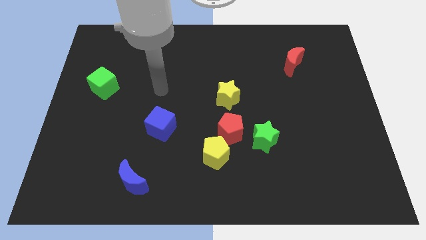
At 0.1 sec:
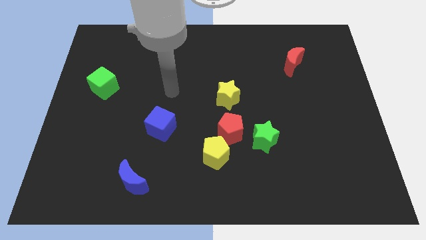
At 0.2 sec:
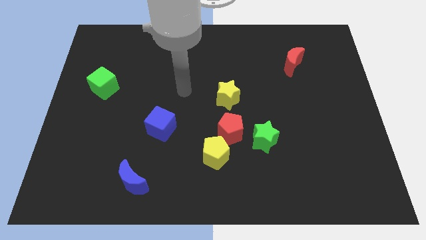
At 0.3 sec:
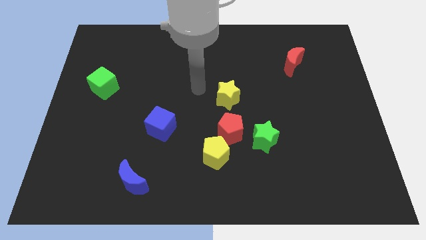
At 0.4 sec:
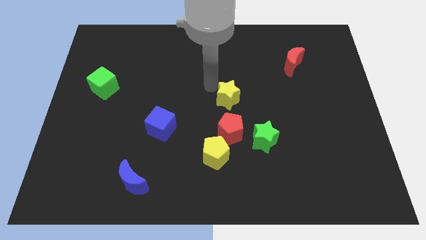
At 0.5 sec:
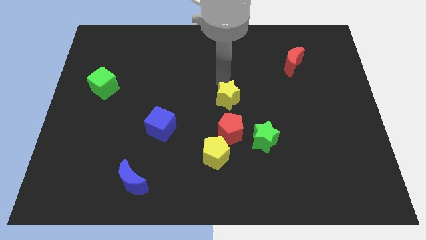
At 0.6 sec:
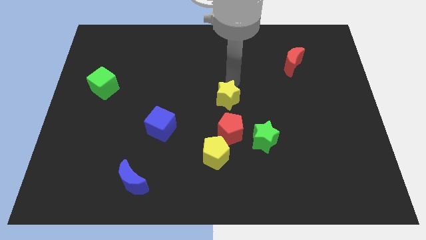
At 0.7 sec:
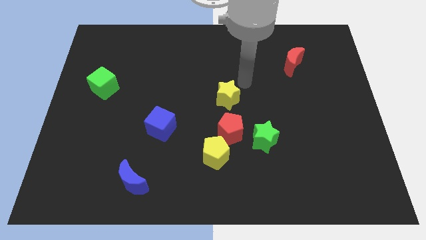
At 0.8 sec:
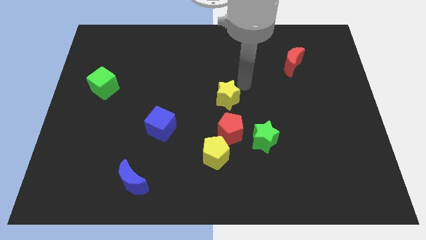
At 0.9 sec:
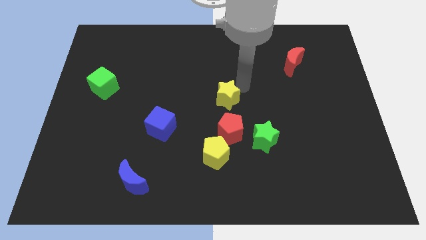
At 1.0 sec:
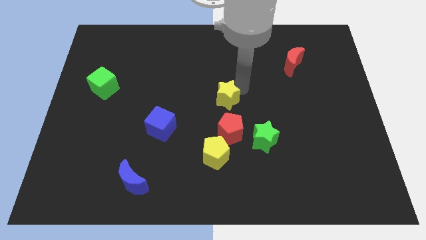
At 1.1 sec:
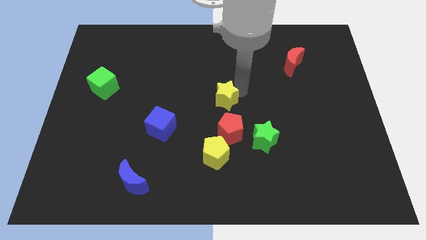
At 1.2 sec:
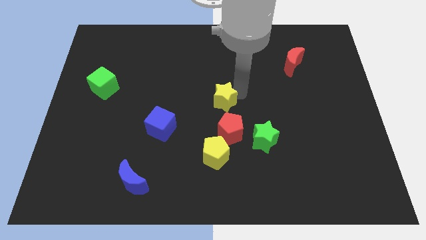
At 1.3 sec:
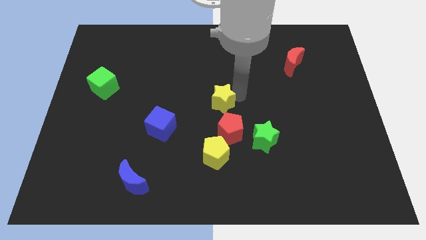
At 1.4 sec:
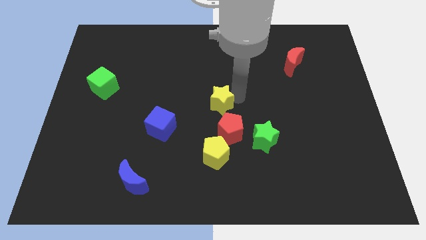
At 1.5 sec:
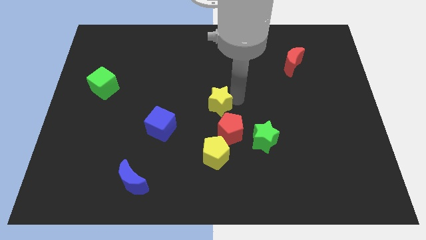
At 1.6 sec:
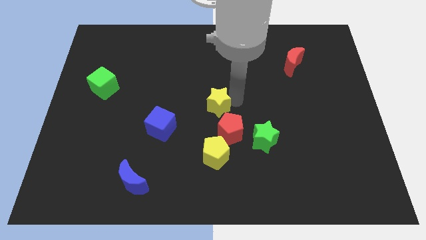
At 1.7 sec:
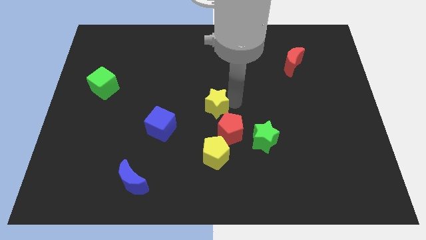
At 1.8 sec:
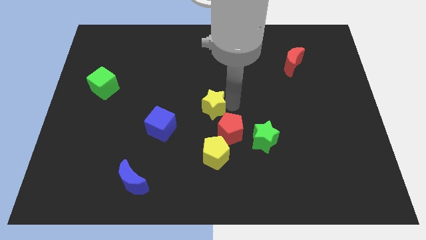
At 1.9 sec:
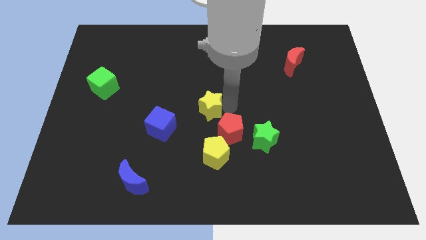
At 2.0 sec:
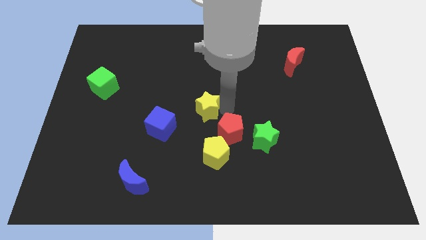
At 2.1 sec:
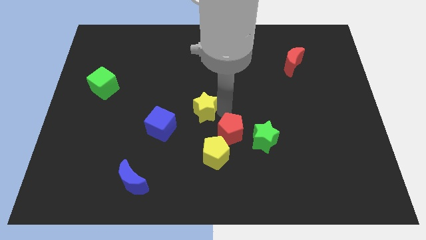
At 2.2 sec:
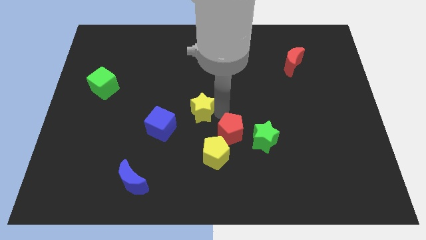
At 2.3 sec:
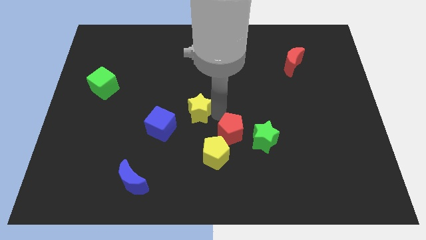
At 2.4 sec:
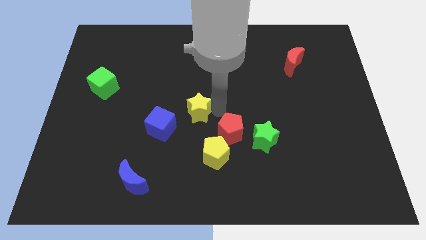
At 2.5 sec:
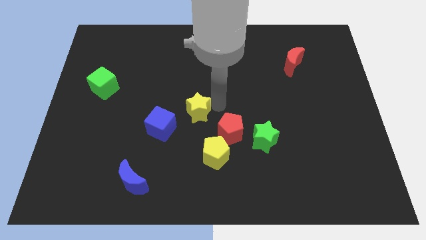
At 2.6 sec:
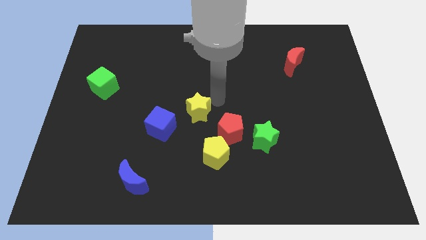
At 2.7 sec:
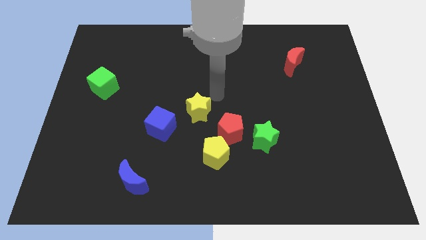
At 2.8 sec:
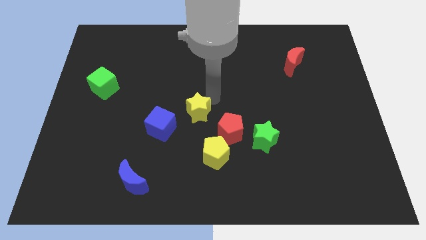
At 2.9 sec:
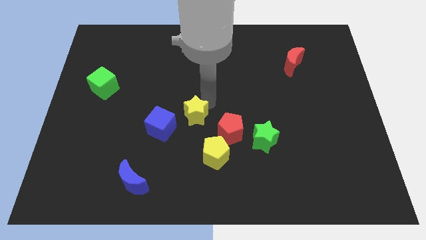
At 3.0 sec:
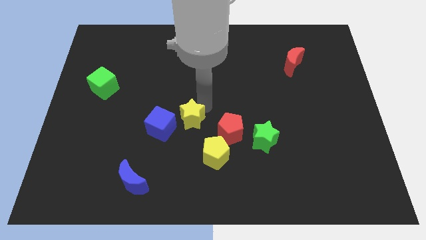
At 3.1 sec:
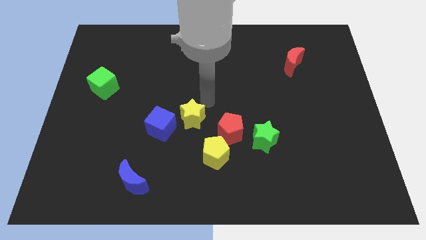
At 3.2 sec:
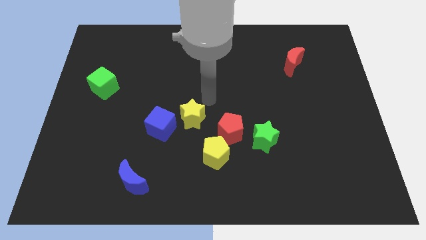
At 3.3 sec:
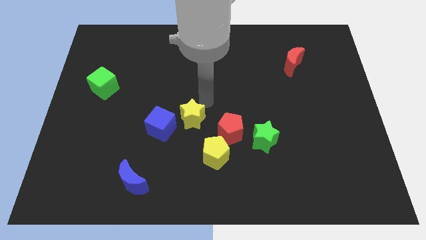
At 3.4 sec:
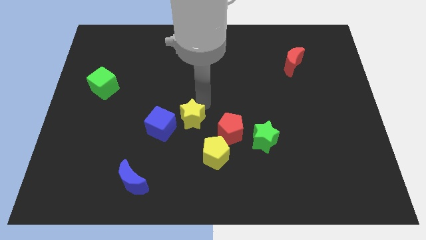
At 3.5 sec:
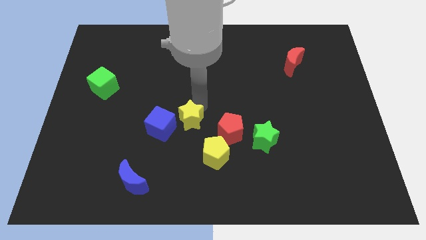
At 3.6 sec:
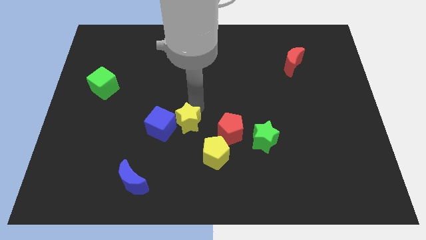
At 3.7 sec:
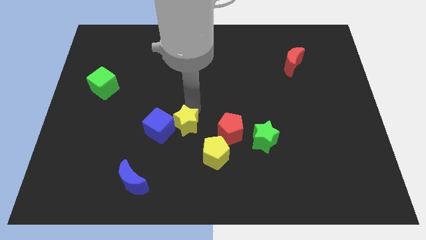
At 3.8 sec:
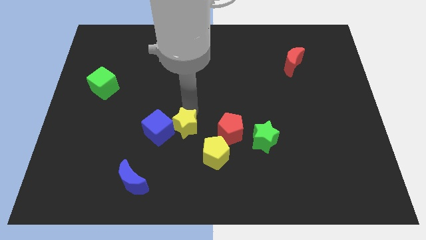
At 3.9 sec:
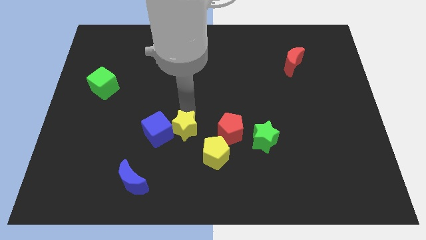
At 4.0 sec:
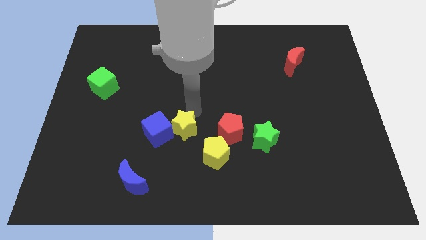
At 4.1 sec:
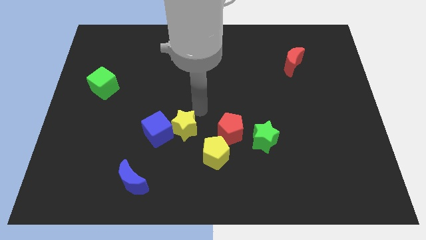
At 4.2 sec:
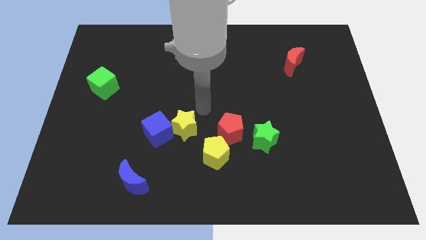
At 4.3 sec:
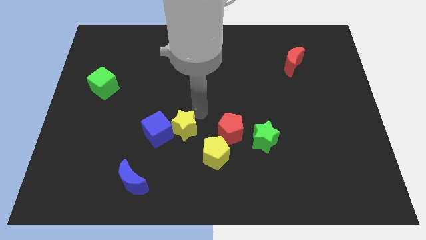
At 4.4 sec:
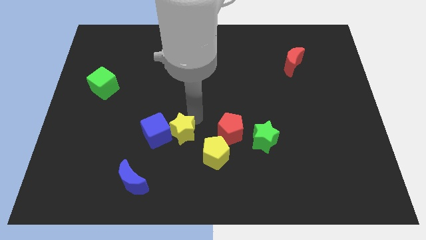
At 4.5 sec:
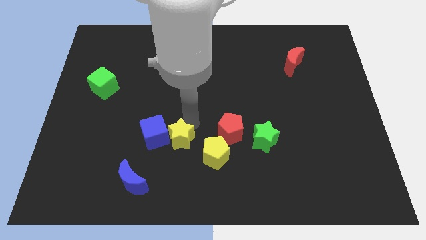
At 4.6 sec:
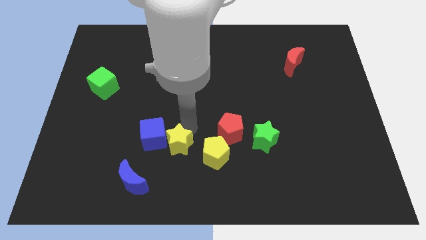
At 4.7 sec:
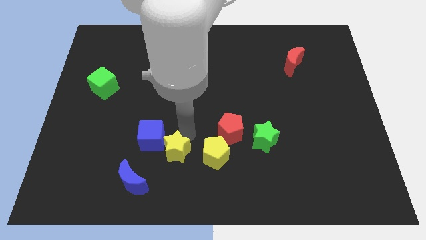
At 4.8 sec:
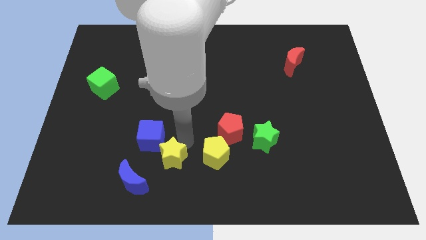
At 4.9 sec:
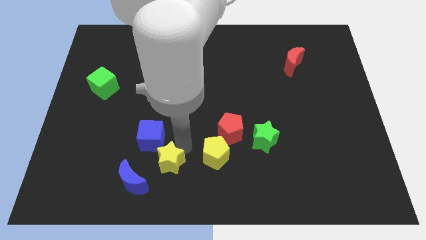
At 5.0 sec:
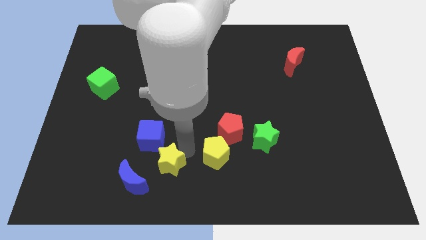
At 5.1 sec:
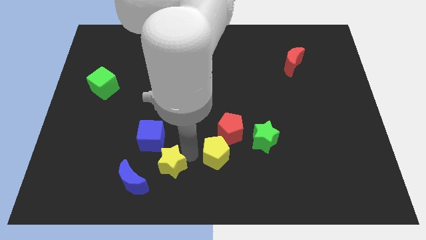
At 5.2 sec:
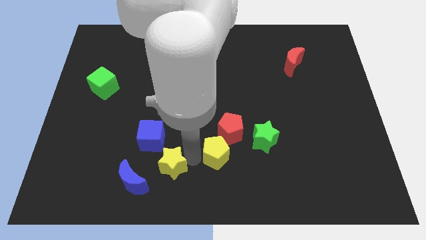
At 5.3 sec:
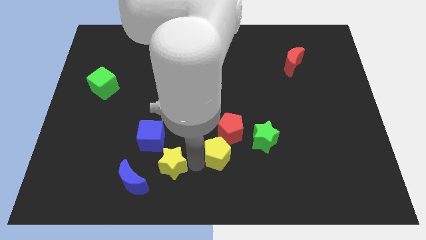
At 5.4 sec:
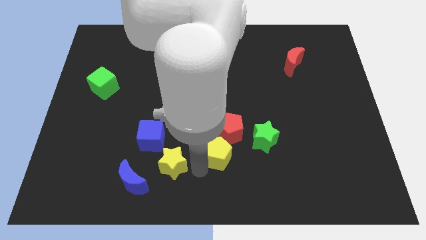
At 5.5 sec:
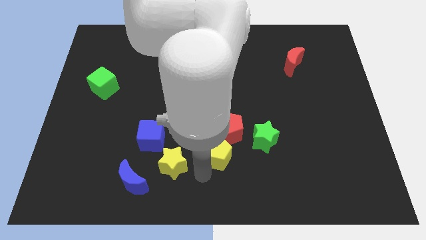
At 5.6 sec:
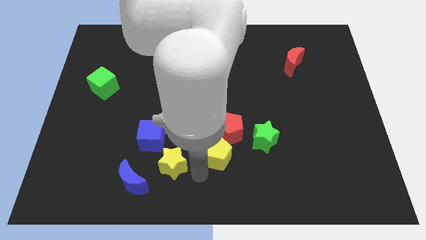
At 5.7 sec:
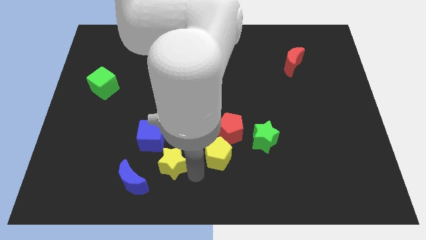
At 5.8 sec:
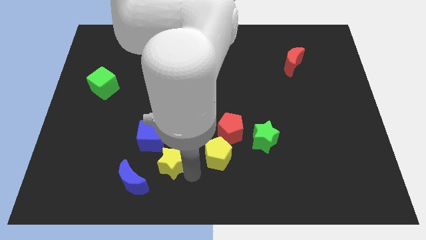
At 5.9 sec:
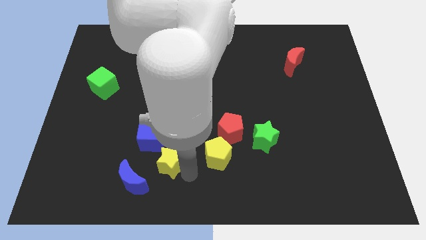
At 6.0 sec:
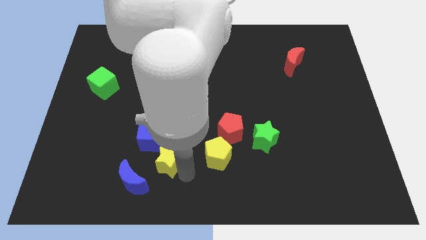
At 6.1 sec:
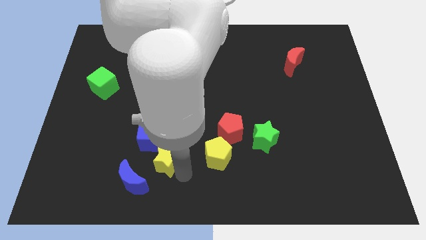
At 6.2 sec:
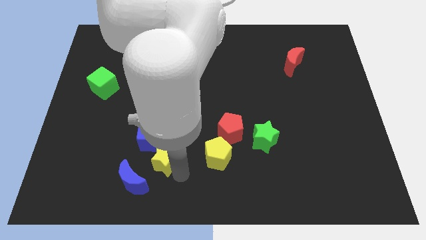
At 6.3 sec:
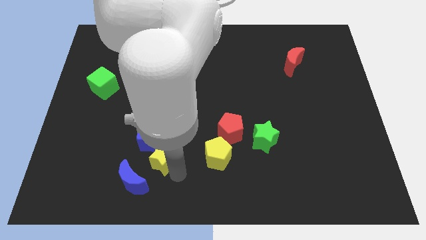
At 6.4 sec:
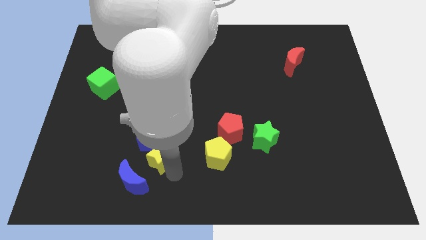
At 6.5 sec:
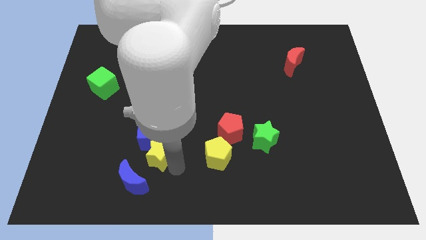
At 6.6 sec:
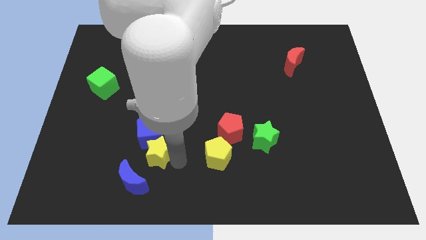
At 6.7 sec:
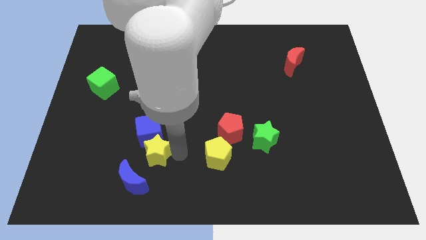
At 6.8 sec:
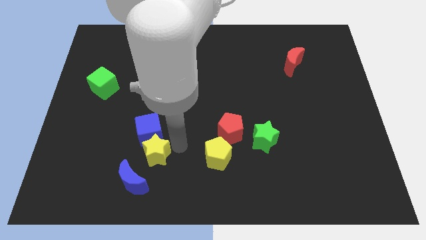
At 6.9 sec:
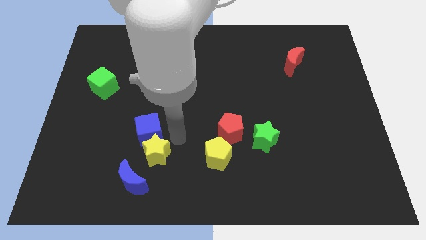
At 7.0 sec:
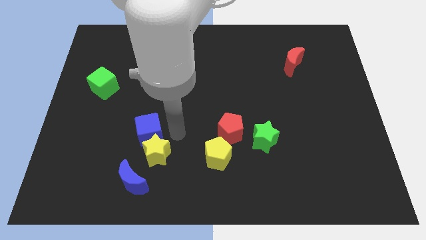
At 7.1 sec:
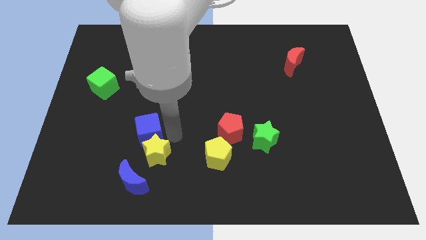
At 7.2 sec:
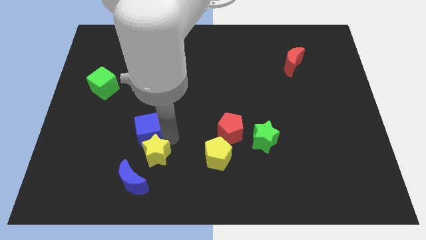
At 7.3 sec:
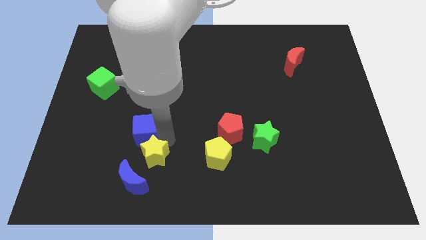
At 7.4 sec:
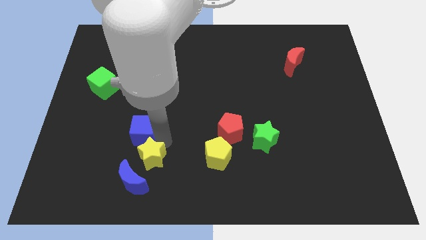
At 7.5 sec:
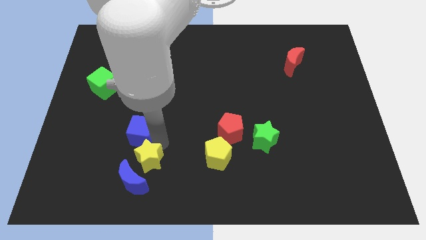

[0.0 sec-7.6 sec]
move the yellow star to the blue moon
